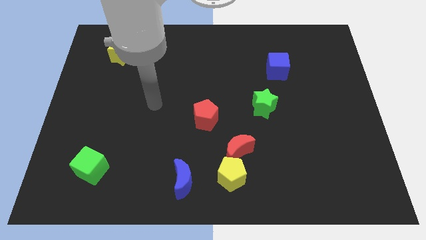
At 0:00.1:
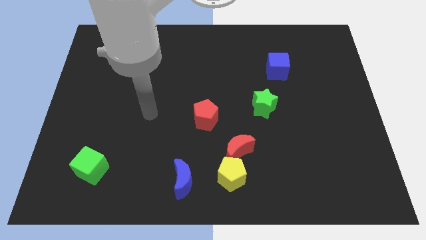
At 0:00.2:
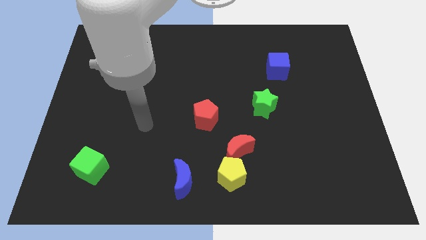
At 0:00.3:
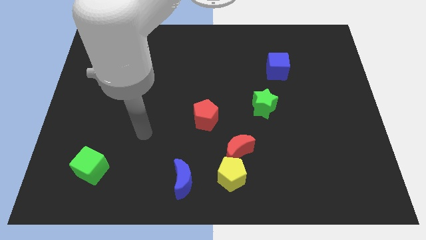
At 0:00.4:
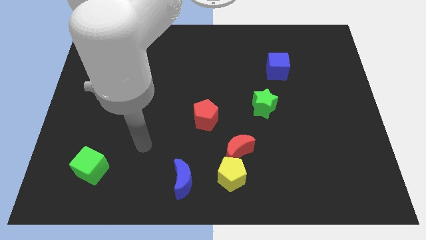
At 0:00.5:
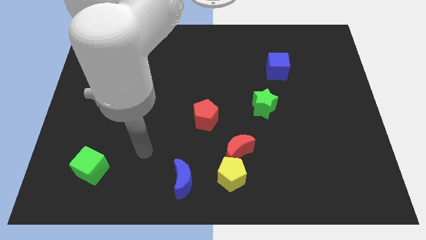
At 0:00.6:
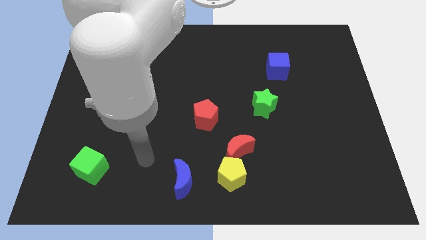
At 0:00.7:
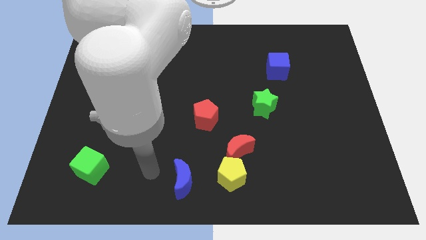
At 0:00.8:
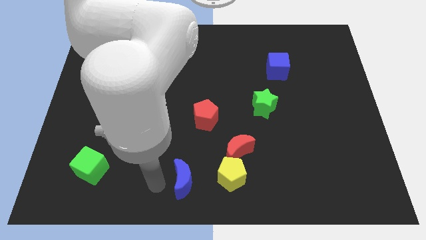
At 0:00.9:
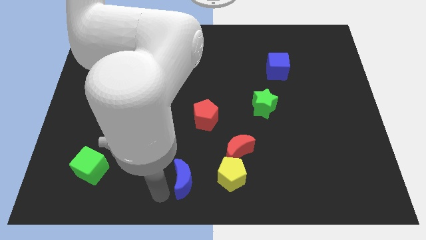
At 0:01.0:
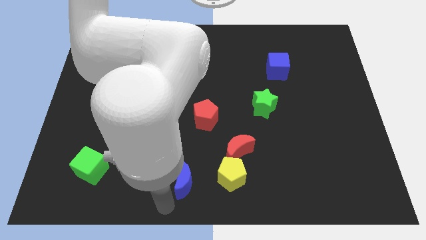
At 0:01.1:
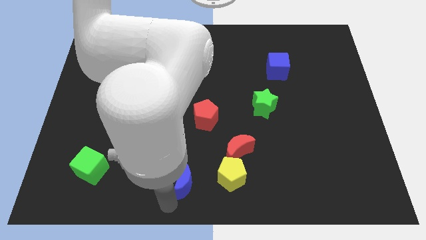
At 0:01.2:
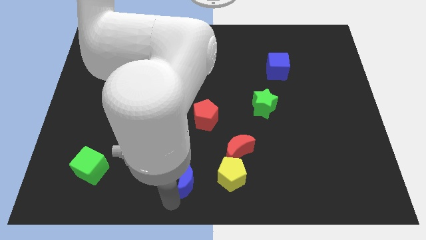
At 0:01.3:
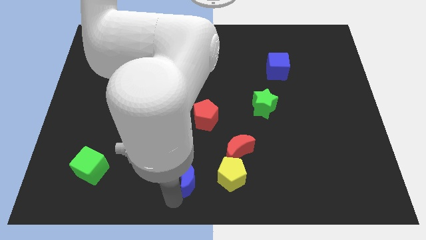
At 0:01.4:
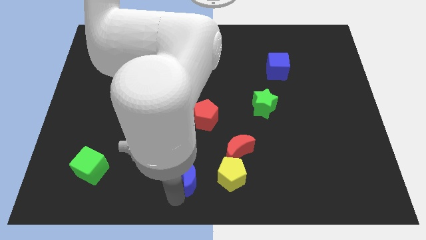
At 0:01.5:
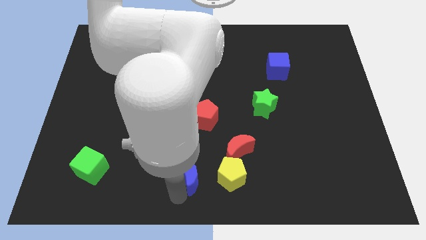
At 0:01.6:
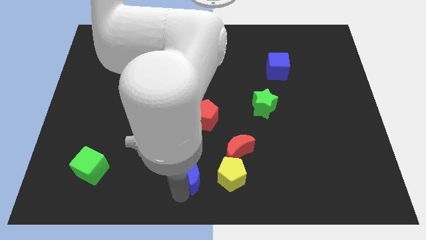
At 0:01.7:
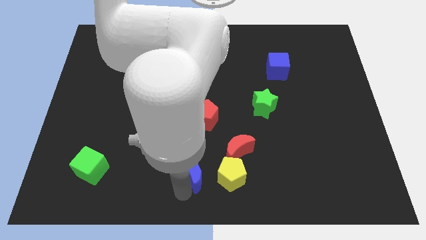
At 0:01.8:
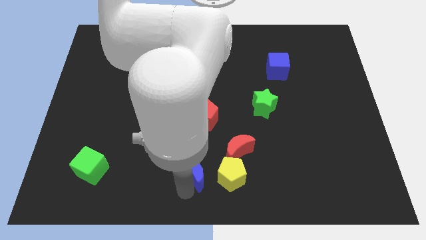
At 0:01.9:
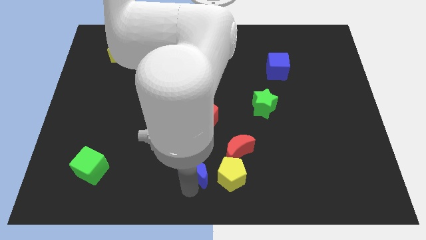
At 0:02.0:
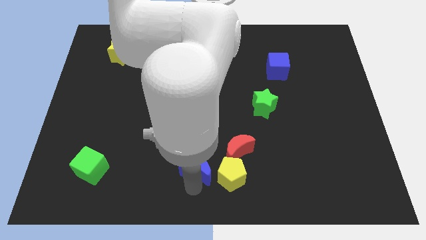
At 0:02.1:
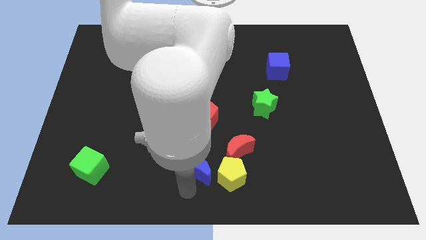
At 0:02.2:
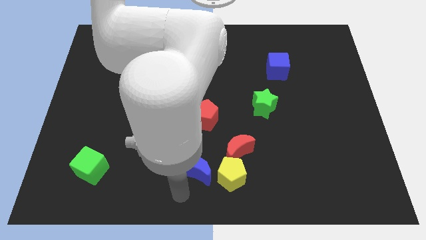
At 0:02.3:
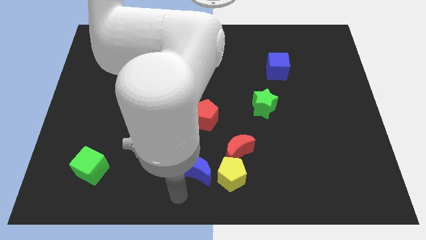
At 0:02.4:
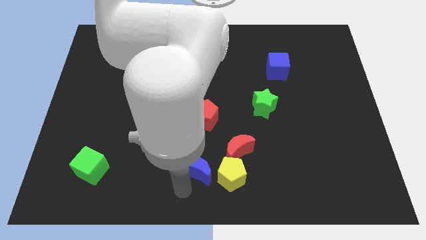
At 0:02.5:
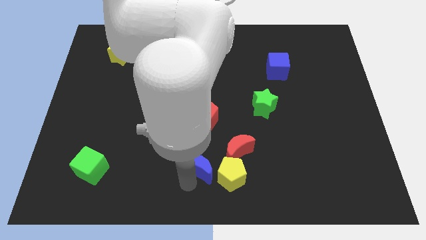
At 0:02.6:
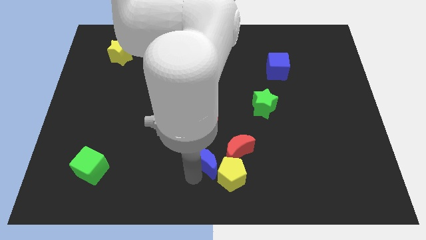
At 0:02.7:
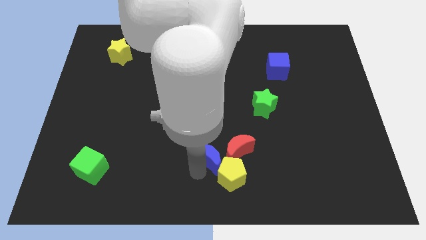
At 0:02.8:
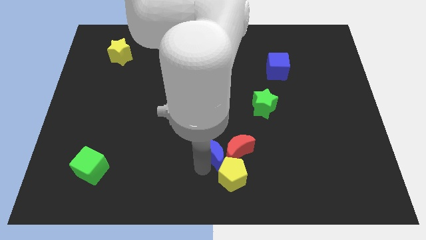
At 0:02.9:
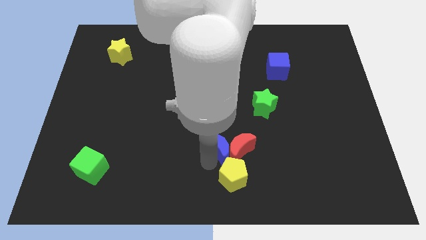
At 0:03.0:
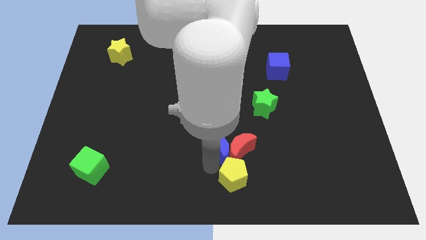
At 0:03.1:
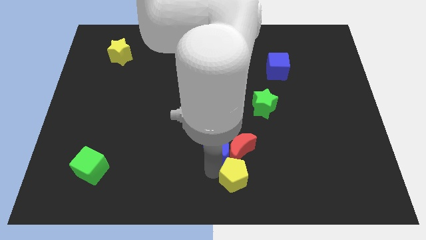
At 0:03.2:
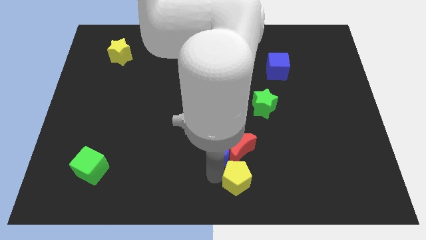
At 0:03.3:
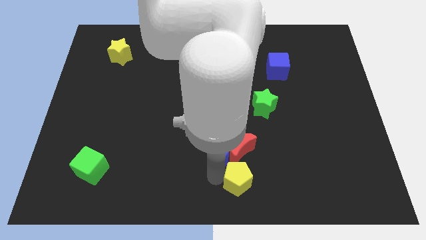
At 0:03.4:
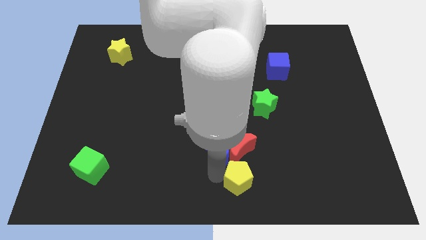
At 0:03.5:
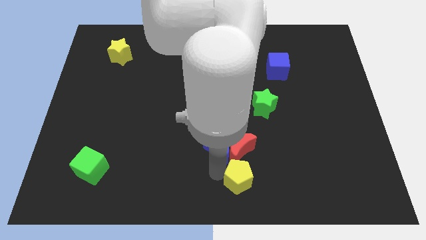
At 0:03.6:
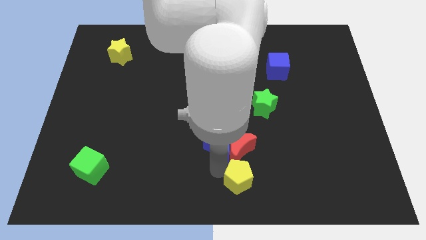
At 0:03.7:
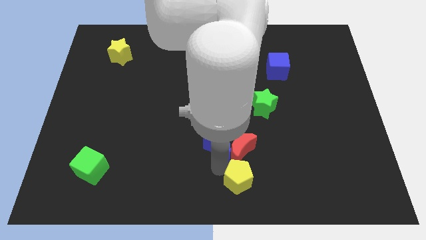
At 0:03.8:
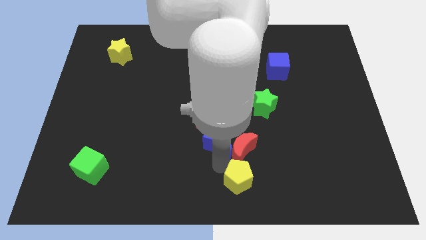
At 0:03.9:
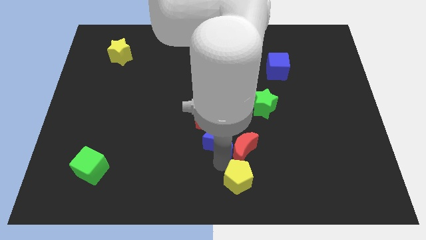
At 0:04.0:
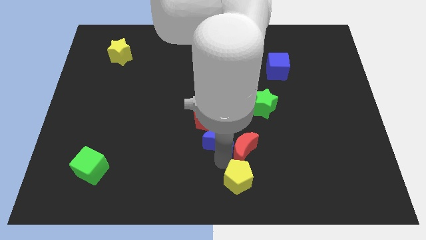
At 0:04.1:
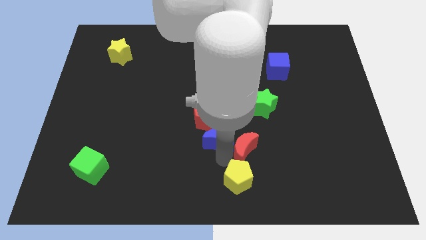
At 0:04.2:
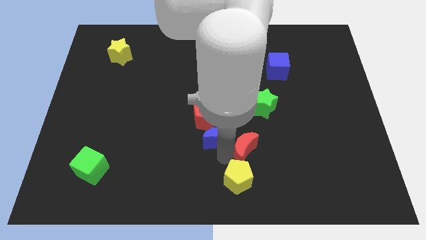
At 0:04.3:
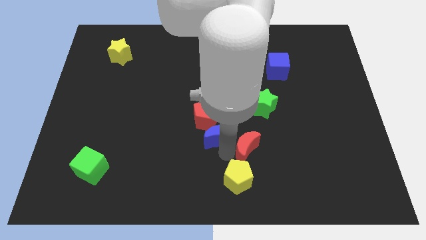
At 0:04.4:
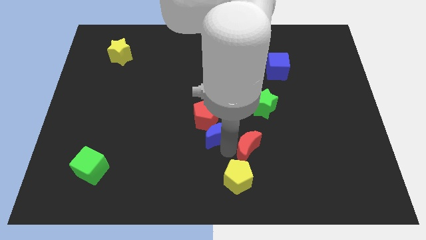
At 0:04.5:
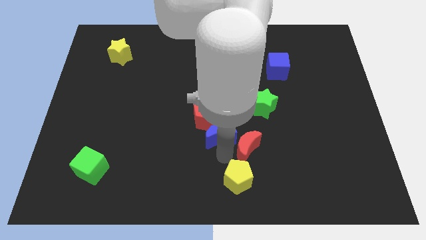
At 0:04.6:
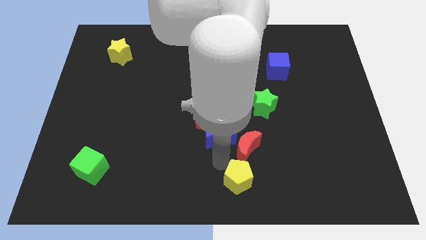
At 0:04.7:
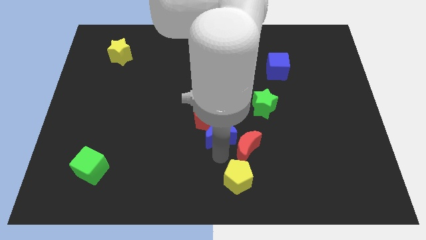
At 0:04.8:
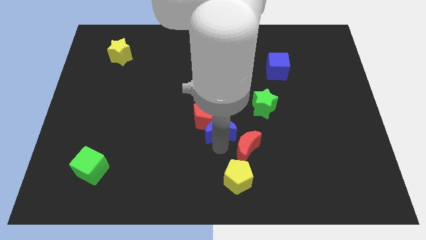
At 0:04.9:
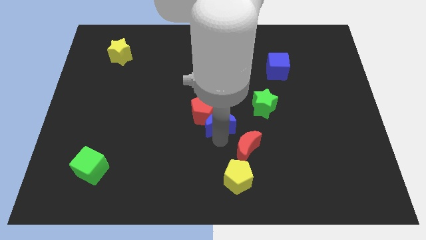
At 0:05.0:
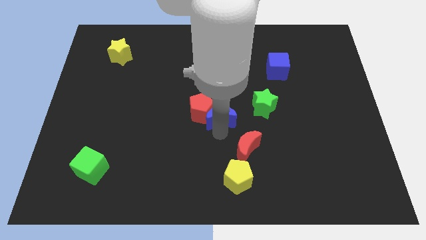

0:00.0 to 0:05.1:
push the blue moon to the left side of the green star

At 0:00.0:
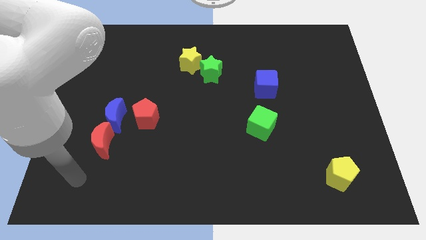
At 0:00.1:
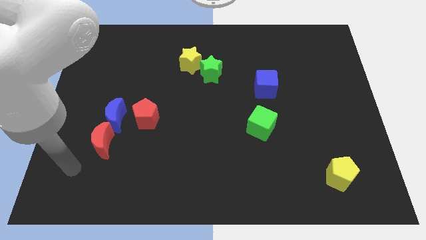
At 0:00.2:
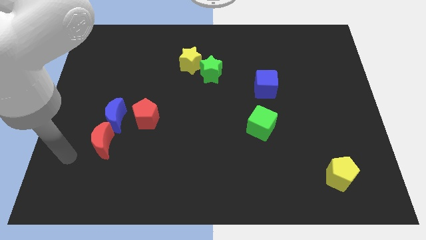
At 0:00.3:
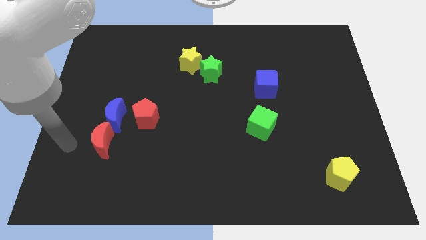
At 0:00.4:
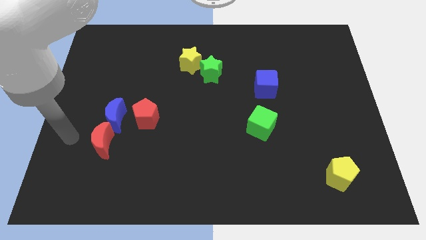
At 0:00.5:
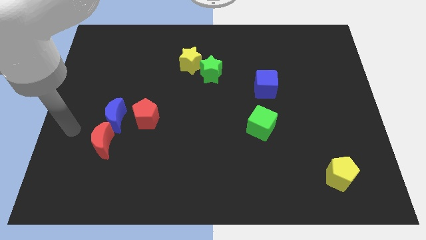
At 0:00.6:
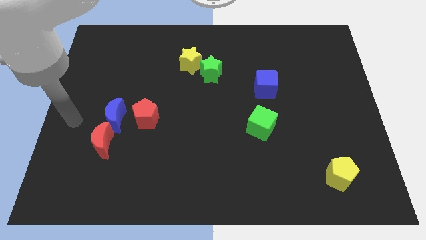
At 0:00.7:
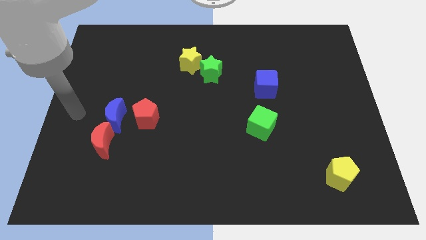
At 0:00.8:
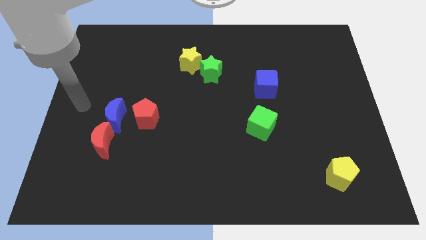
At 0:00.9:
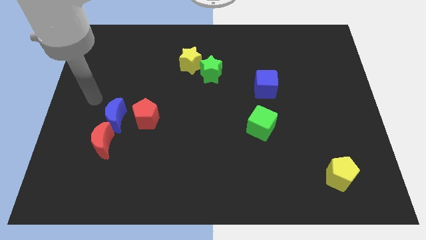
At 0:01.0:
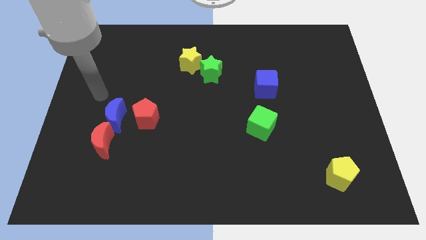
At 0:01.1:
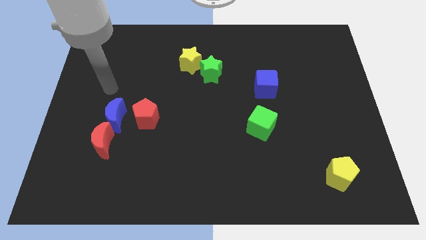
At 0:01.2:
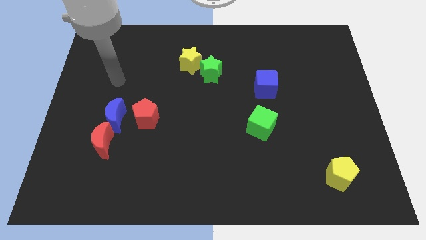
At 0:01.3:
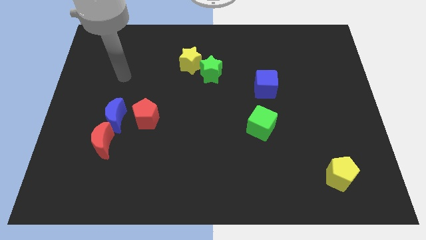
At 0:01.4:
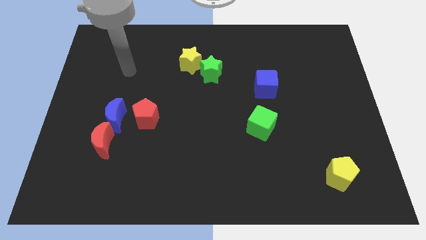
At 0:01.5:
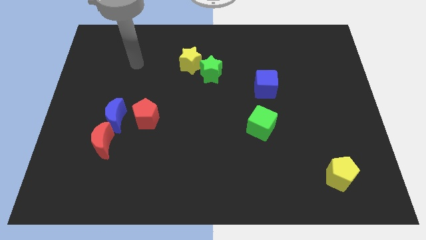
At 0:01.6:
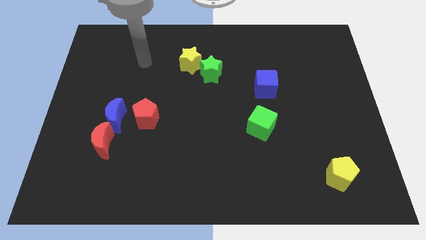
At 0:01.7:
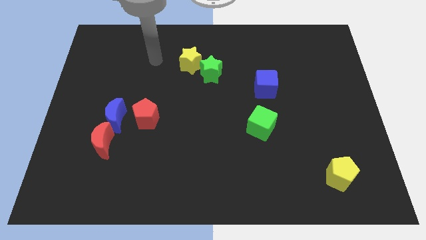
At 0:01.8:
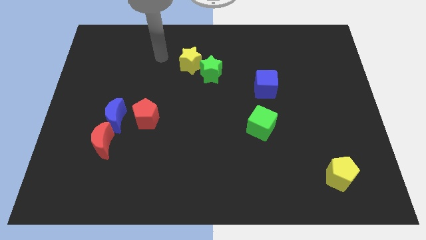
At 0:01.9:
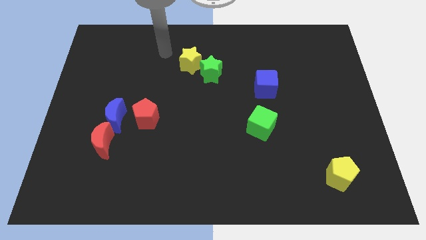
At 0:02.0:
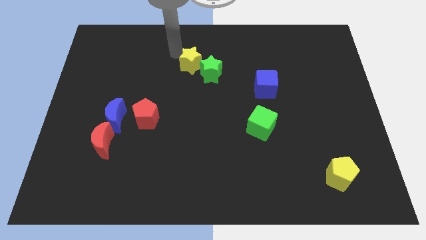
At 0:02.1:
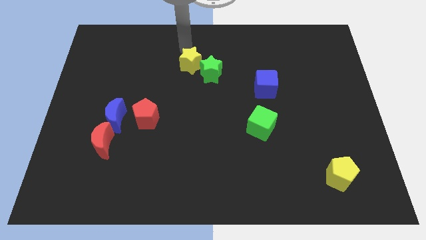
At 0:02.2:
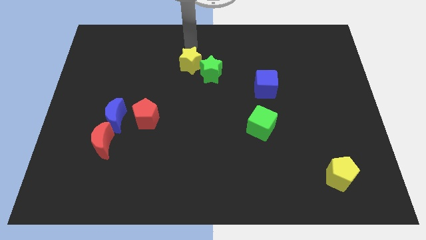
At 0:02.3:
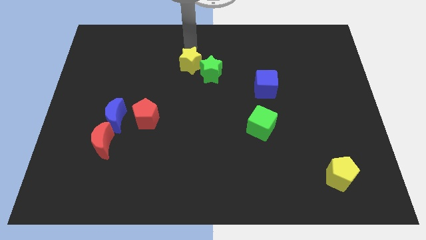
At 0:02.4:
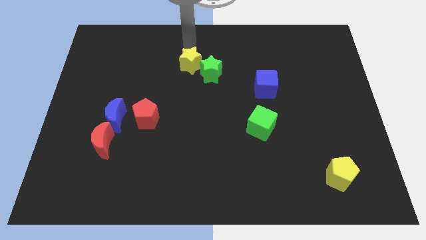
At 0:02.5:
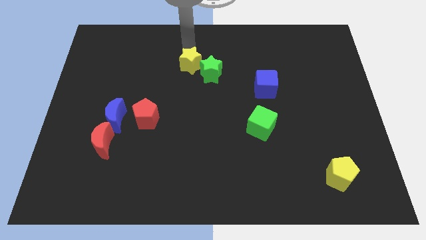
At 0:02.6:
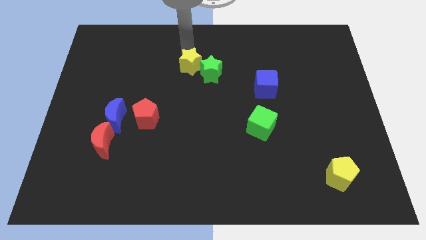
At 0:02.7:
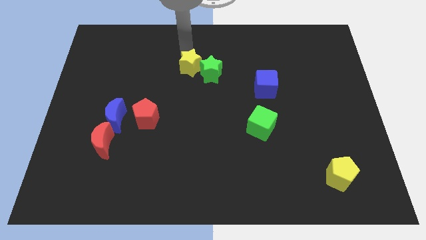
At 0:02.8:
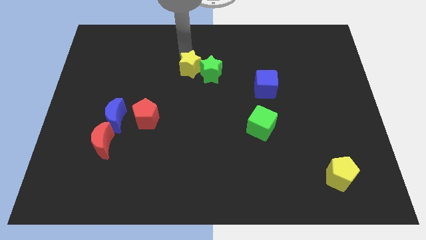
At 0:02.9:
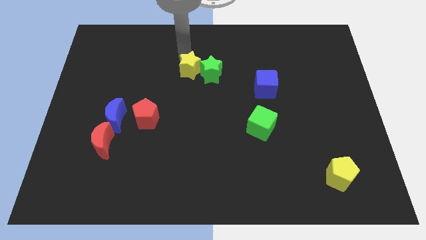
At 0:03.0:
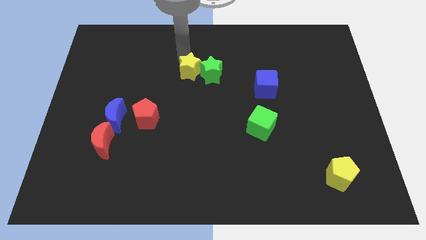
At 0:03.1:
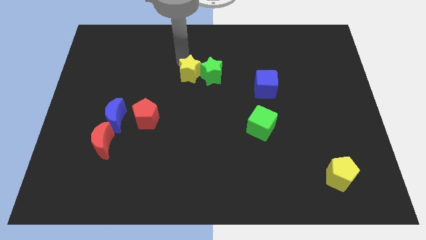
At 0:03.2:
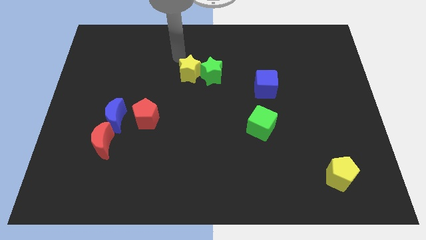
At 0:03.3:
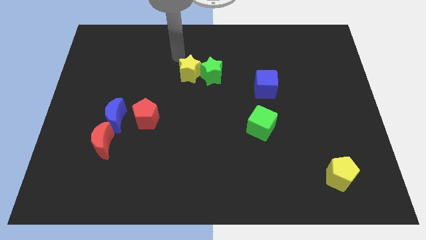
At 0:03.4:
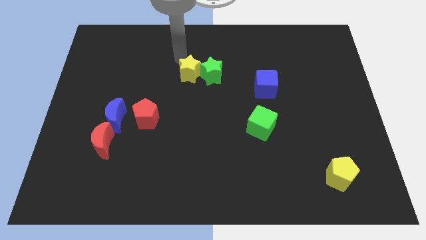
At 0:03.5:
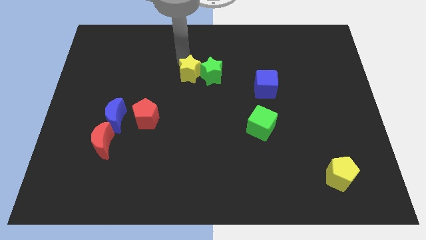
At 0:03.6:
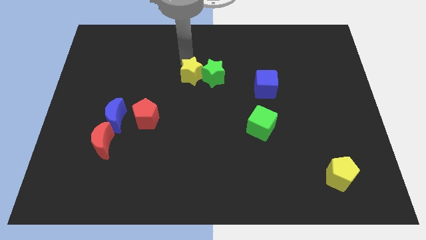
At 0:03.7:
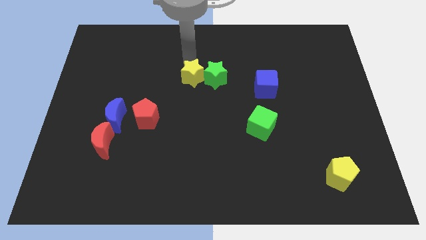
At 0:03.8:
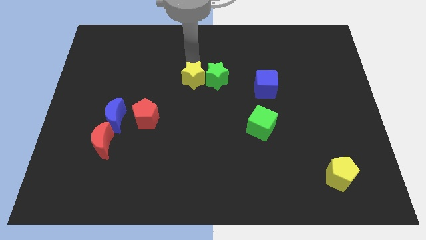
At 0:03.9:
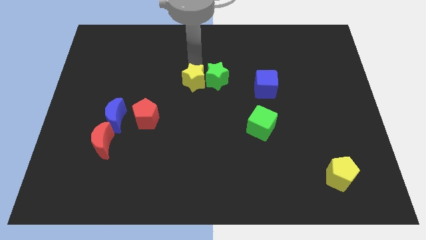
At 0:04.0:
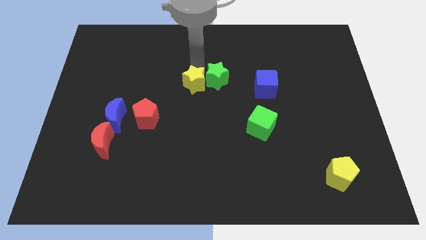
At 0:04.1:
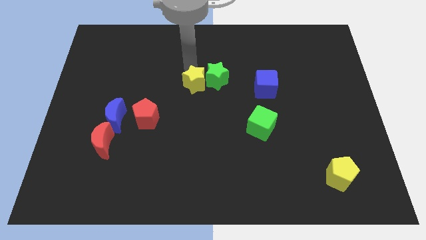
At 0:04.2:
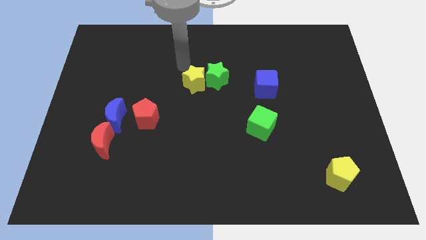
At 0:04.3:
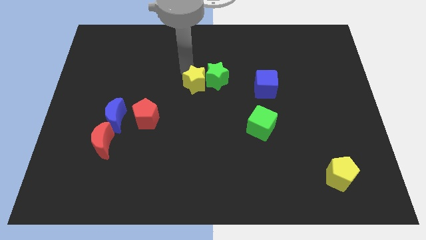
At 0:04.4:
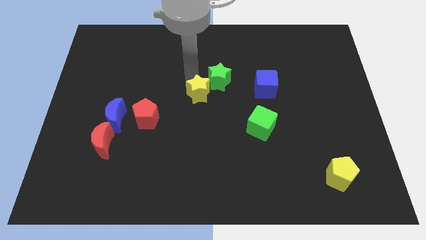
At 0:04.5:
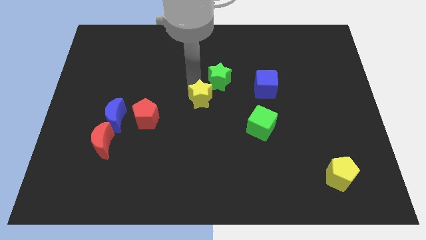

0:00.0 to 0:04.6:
move the yellow star to the bottom of the green star
